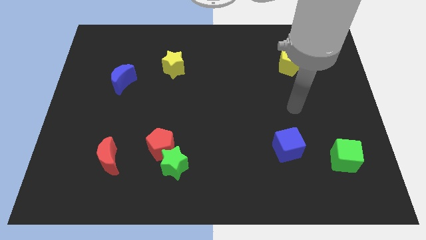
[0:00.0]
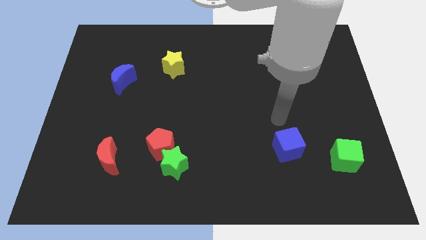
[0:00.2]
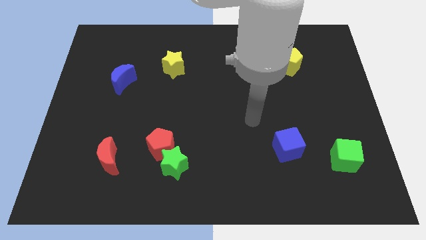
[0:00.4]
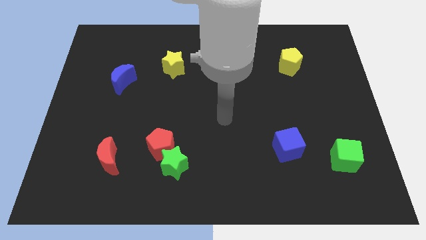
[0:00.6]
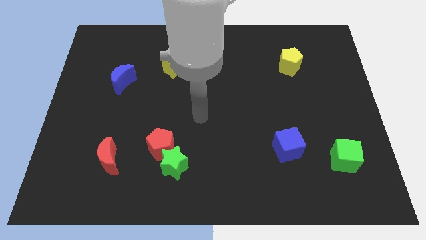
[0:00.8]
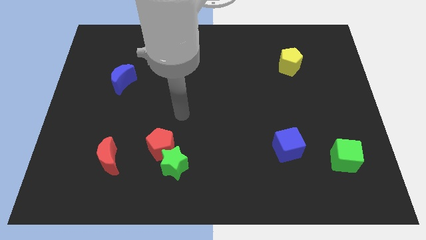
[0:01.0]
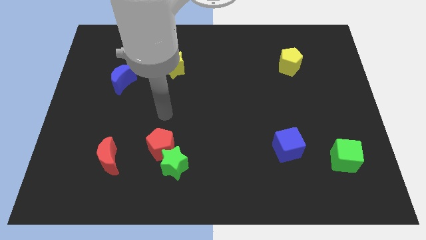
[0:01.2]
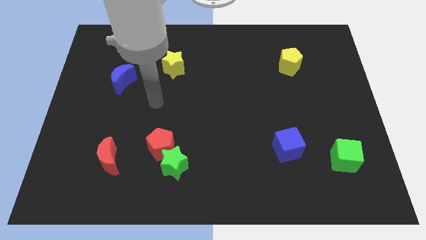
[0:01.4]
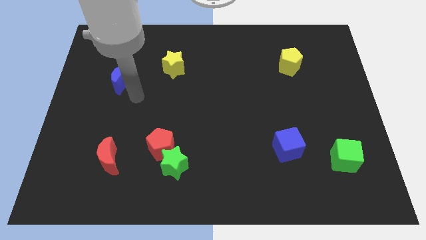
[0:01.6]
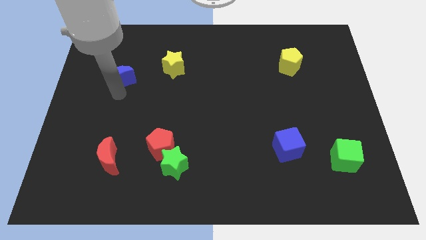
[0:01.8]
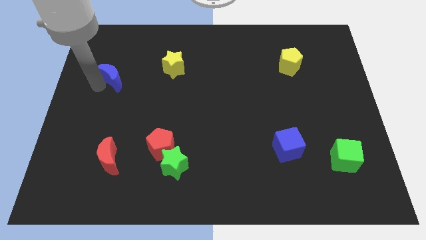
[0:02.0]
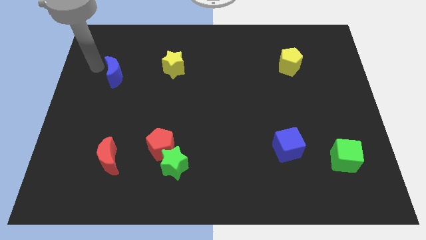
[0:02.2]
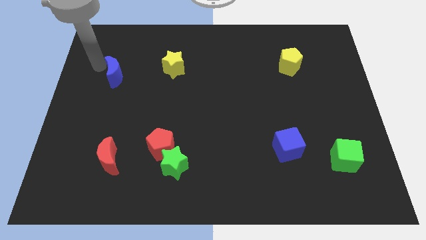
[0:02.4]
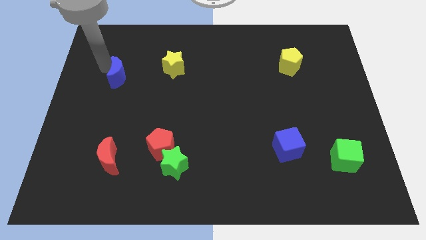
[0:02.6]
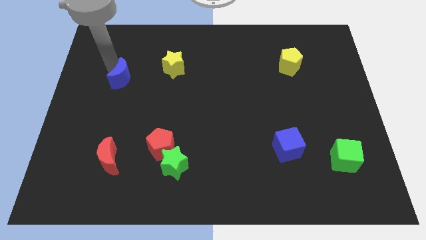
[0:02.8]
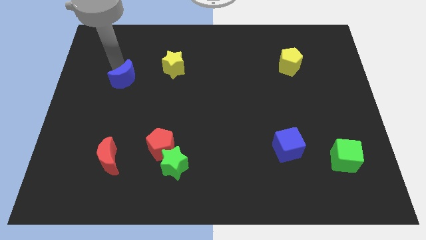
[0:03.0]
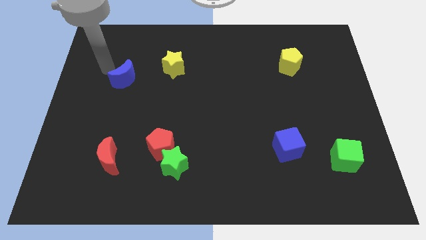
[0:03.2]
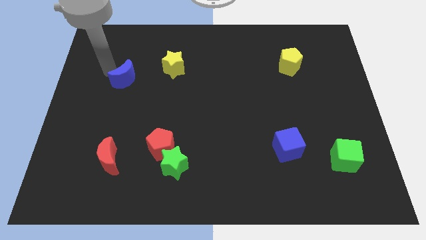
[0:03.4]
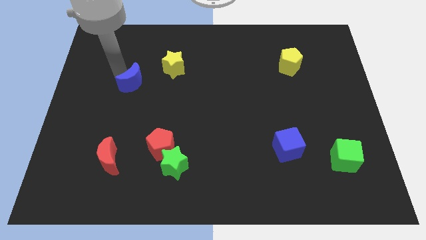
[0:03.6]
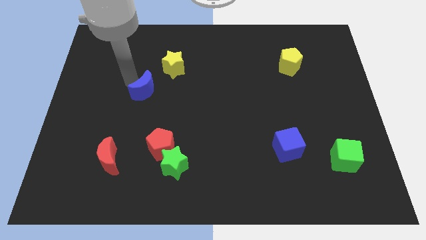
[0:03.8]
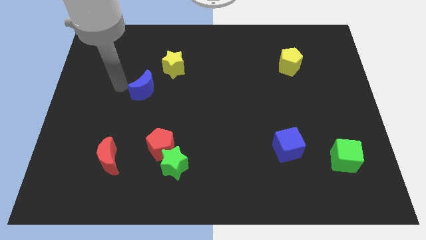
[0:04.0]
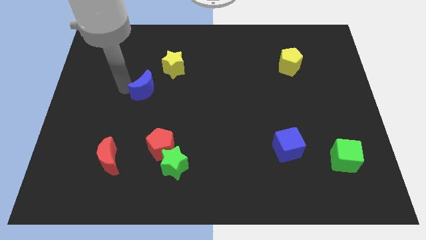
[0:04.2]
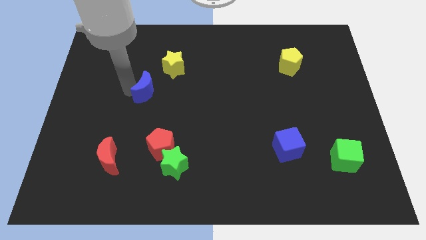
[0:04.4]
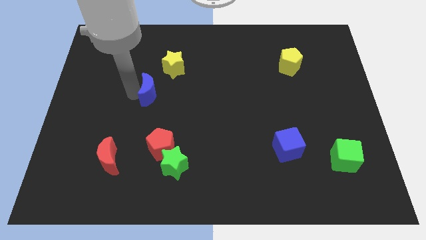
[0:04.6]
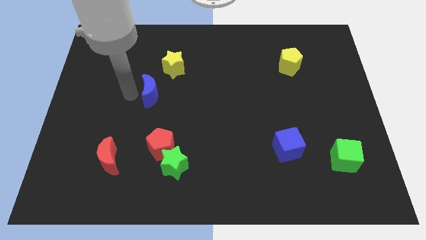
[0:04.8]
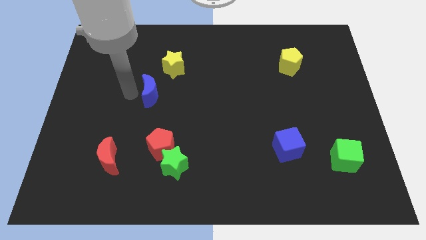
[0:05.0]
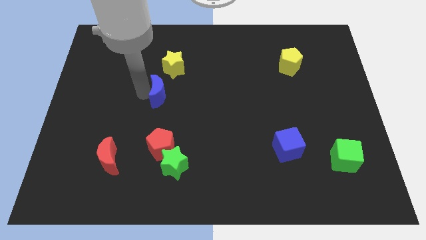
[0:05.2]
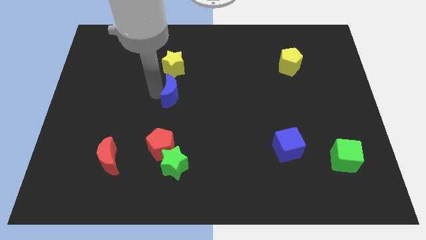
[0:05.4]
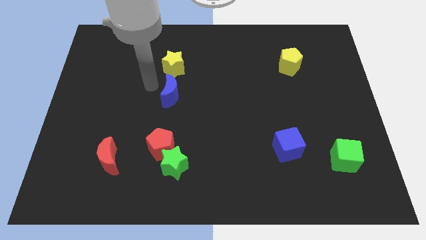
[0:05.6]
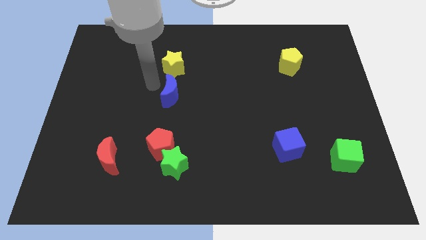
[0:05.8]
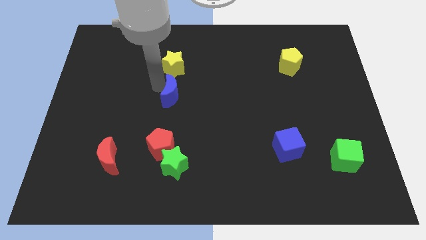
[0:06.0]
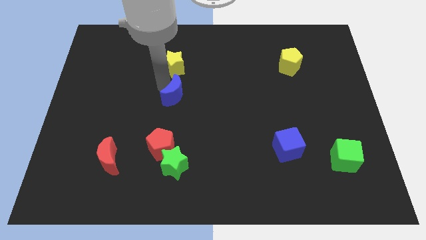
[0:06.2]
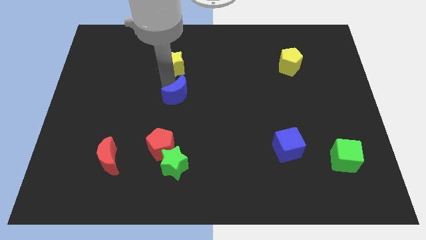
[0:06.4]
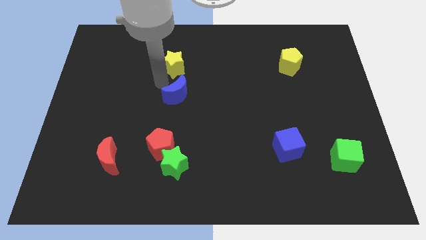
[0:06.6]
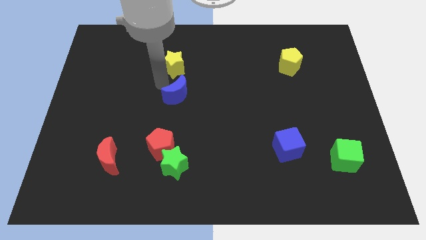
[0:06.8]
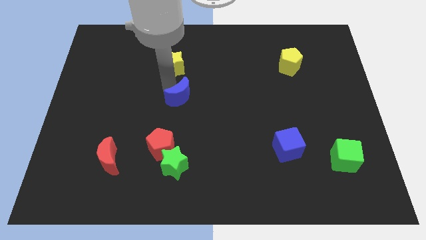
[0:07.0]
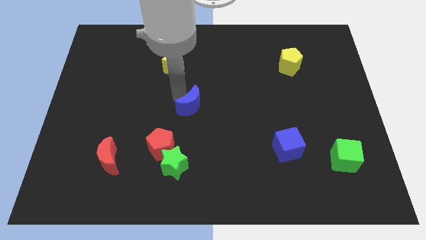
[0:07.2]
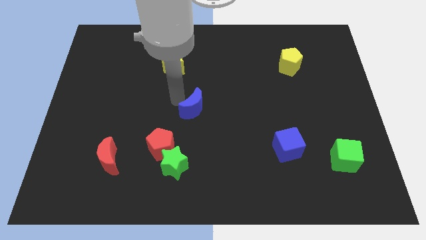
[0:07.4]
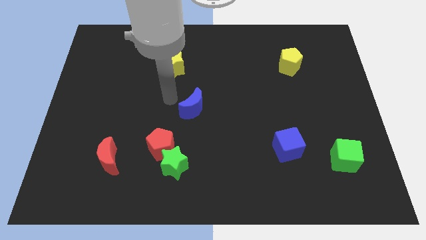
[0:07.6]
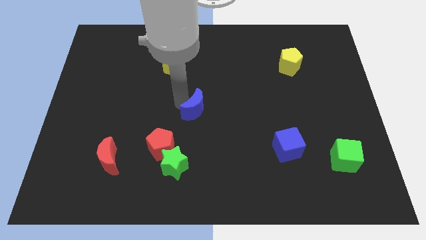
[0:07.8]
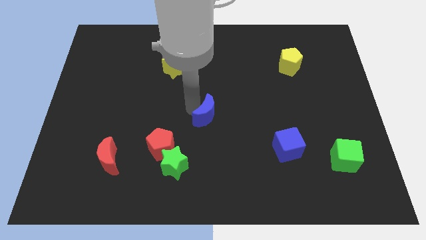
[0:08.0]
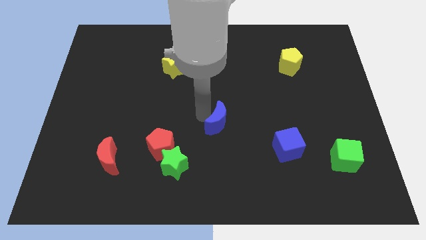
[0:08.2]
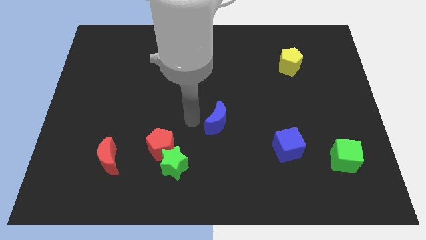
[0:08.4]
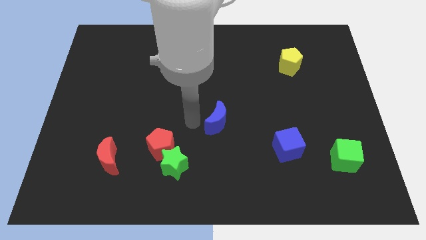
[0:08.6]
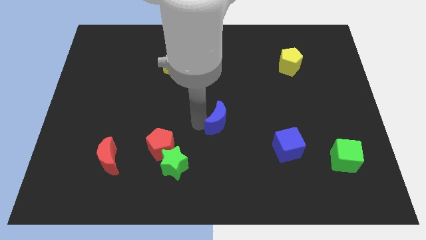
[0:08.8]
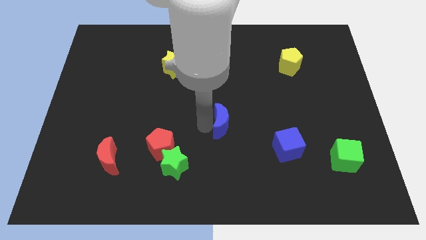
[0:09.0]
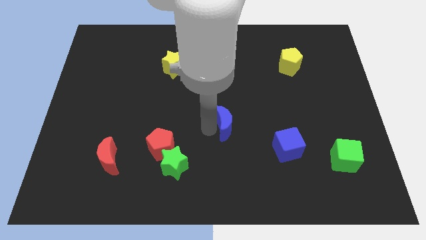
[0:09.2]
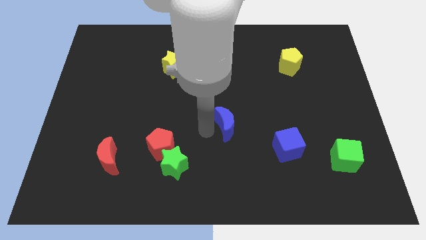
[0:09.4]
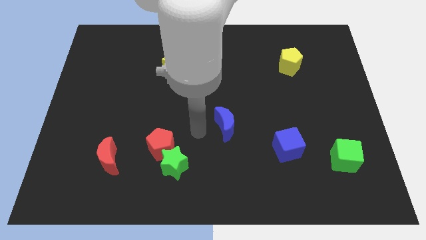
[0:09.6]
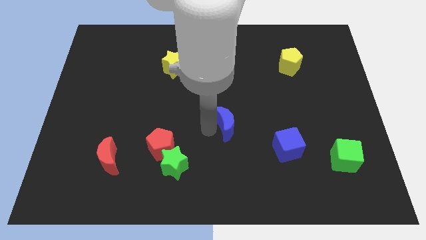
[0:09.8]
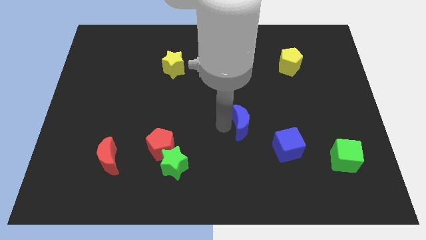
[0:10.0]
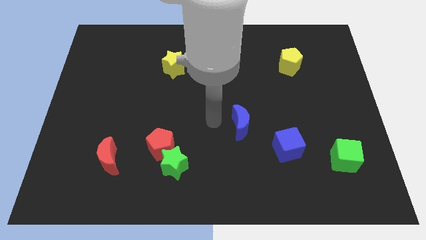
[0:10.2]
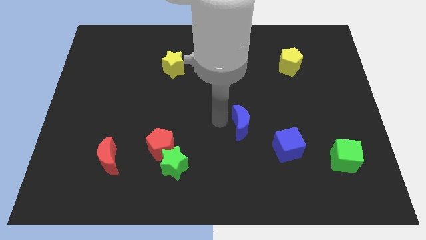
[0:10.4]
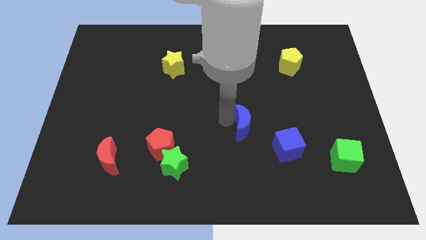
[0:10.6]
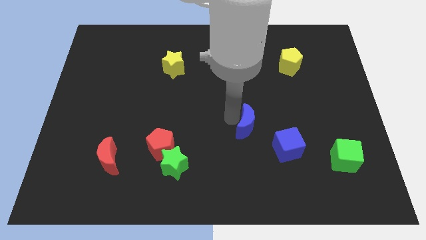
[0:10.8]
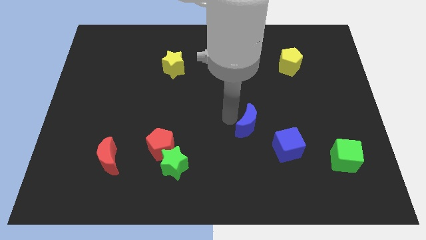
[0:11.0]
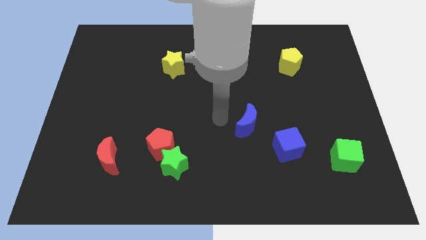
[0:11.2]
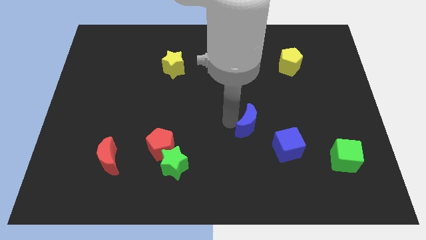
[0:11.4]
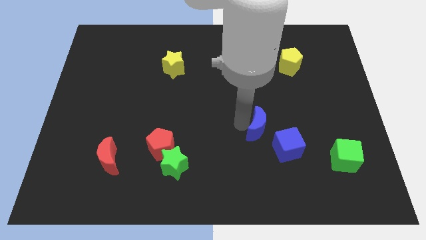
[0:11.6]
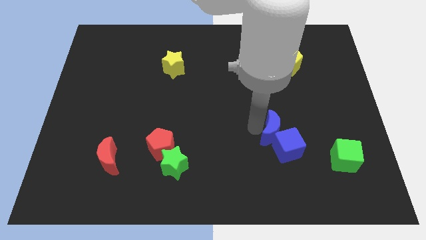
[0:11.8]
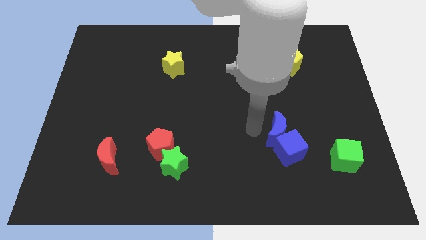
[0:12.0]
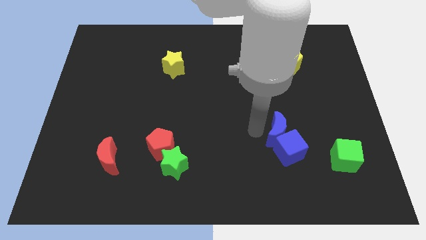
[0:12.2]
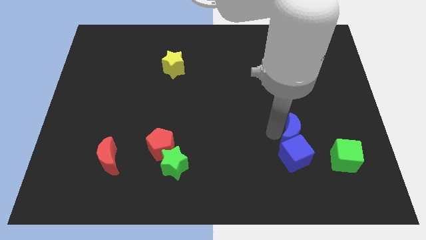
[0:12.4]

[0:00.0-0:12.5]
push the blue moon to the top left side of the green cube

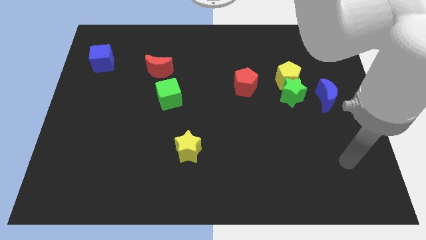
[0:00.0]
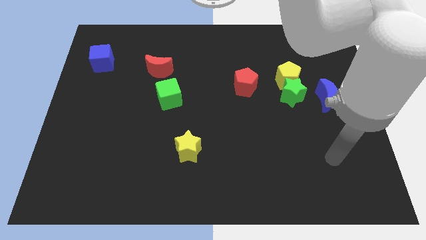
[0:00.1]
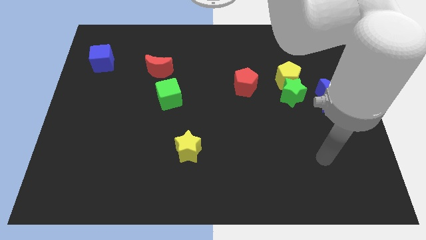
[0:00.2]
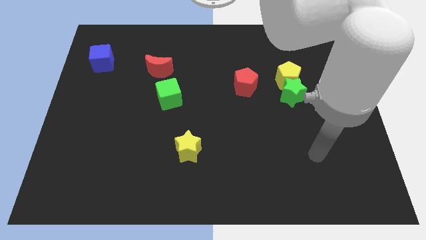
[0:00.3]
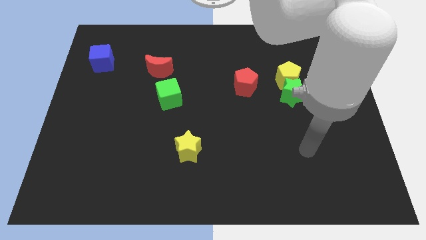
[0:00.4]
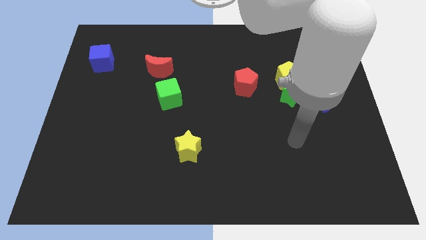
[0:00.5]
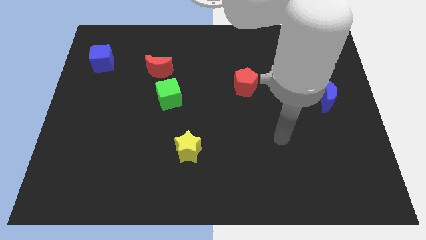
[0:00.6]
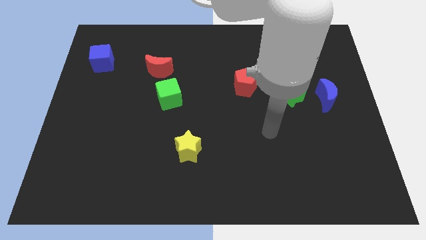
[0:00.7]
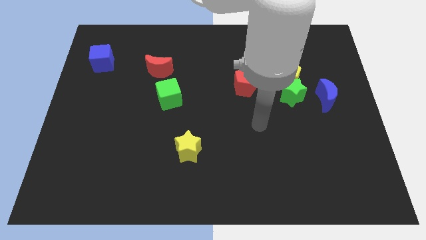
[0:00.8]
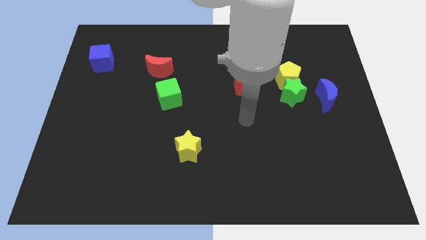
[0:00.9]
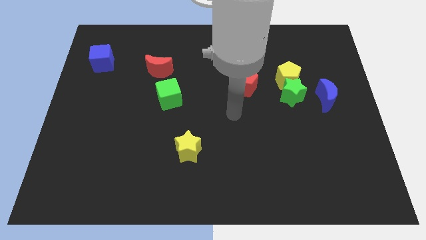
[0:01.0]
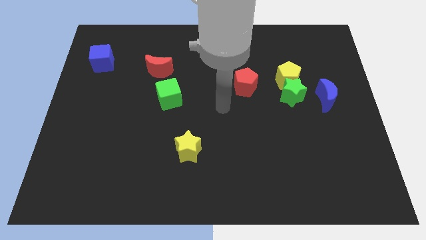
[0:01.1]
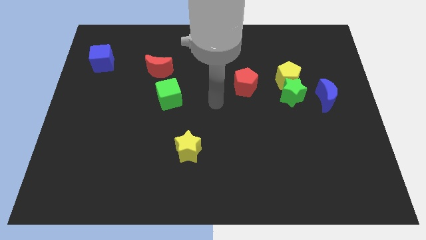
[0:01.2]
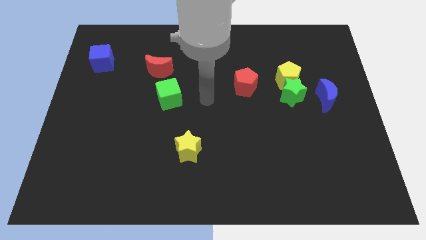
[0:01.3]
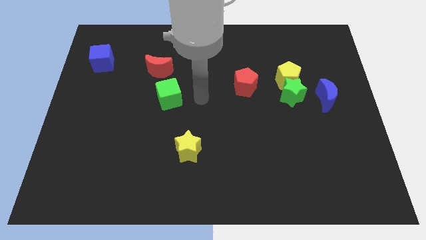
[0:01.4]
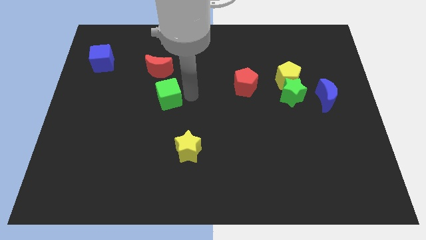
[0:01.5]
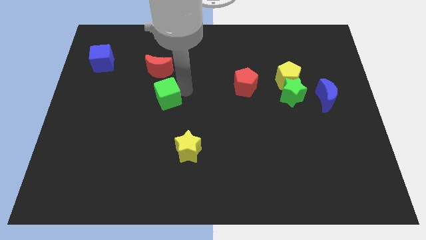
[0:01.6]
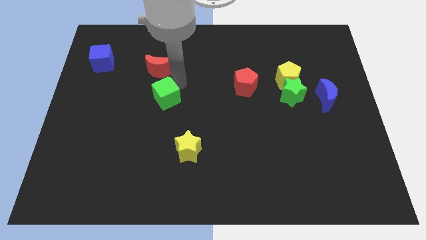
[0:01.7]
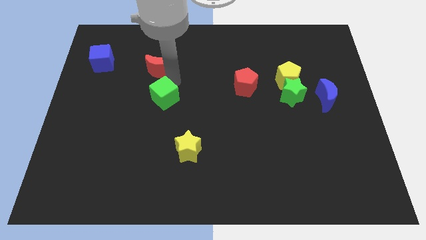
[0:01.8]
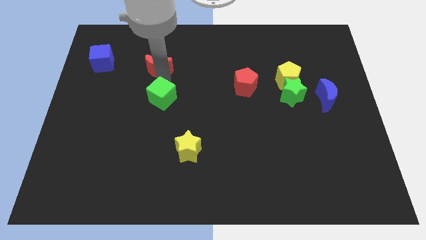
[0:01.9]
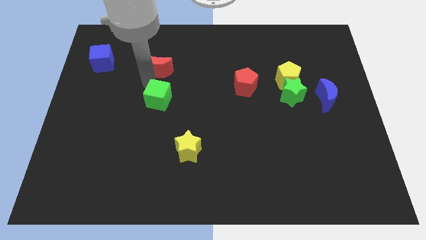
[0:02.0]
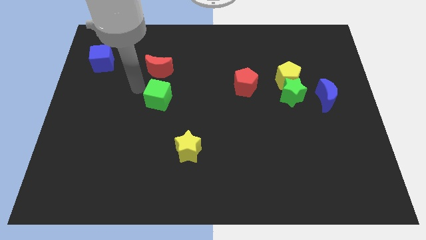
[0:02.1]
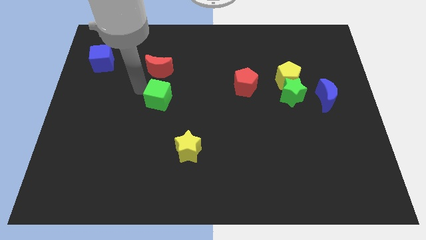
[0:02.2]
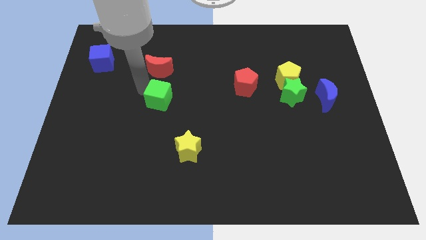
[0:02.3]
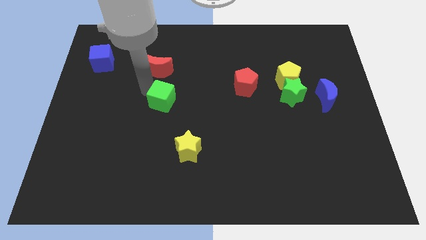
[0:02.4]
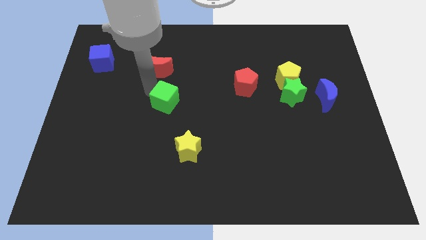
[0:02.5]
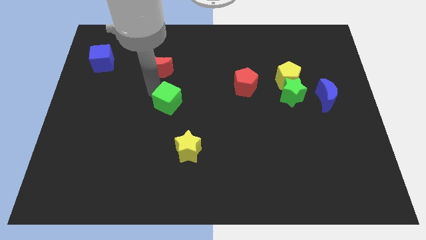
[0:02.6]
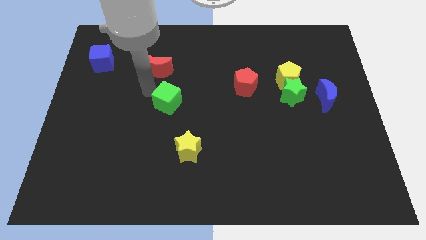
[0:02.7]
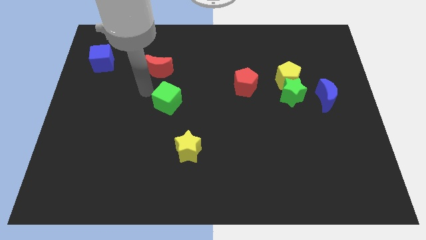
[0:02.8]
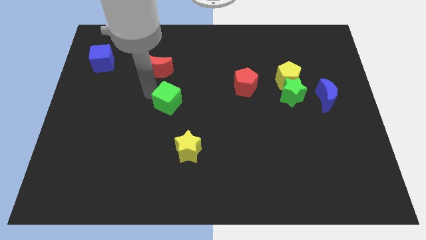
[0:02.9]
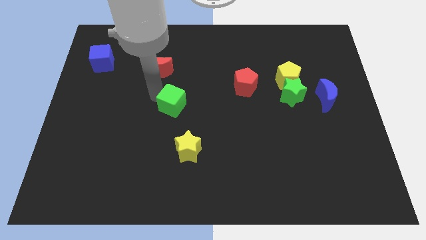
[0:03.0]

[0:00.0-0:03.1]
slide the green cube above the yellow star
